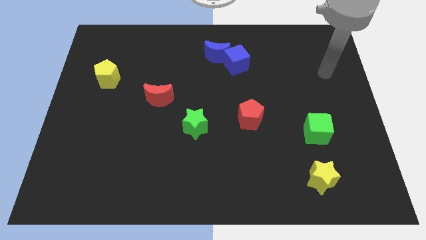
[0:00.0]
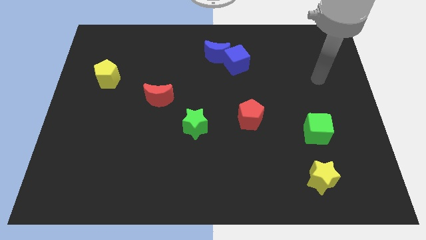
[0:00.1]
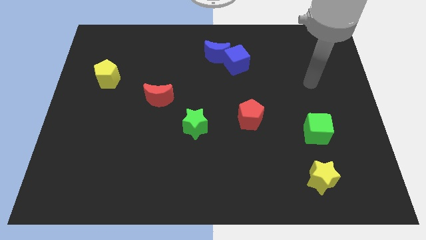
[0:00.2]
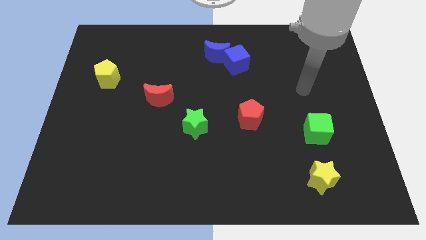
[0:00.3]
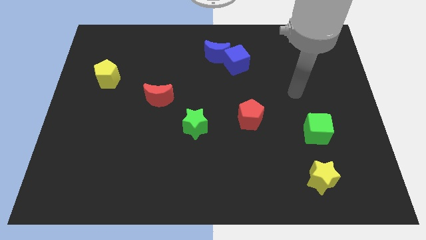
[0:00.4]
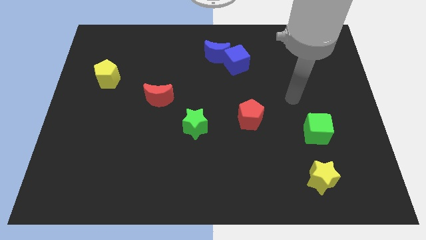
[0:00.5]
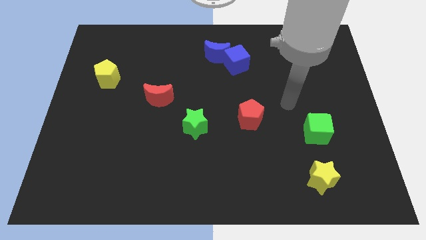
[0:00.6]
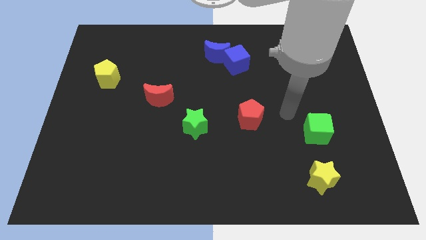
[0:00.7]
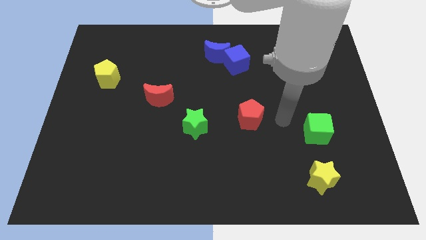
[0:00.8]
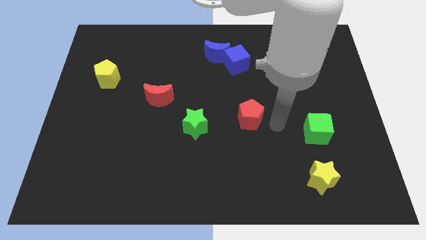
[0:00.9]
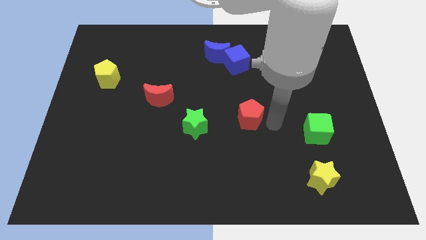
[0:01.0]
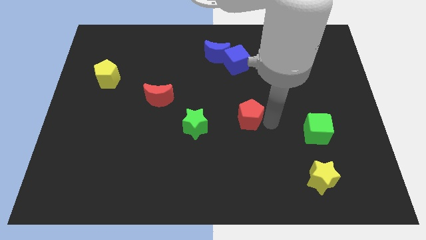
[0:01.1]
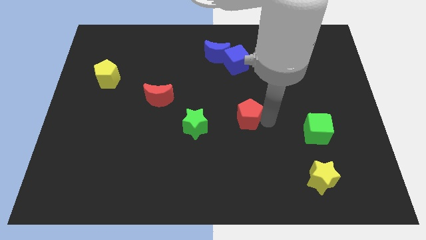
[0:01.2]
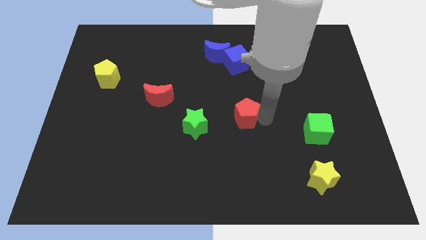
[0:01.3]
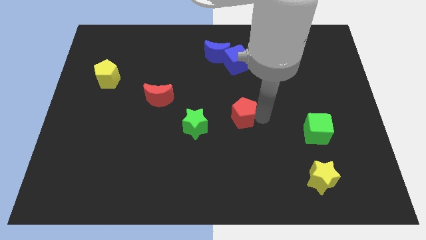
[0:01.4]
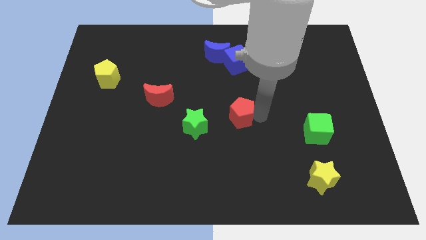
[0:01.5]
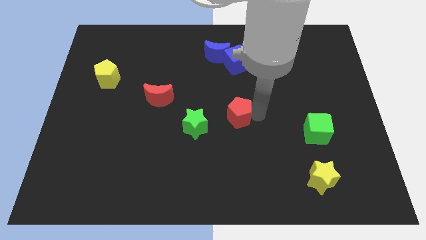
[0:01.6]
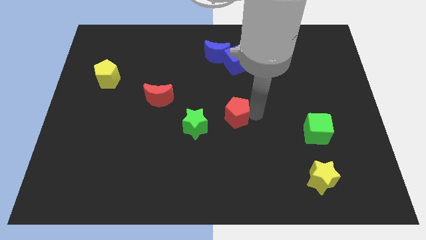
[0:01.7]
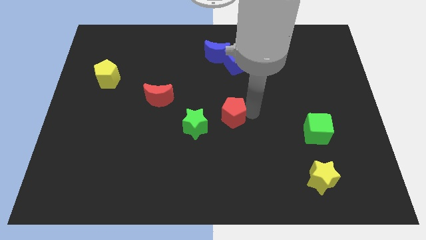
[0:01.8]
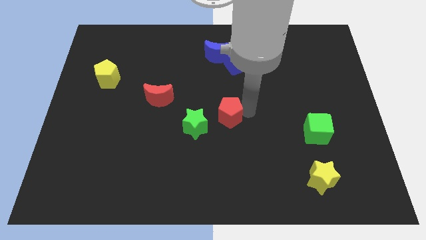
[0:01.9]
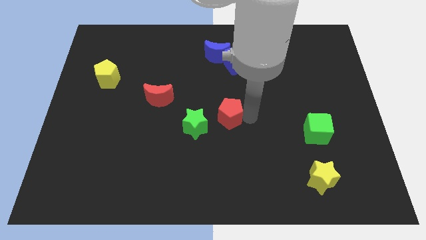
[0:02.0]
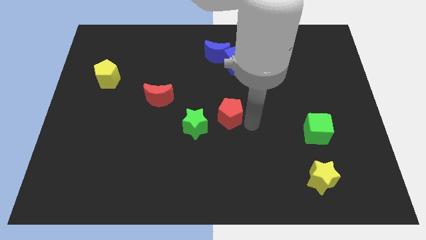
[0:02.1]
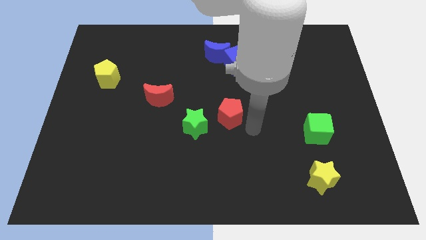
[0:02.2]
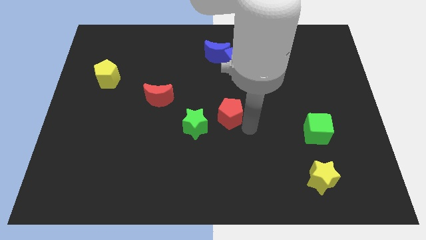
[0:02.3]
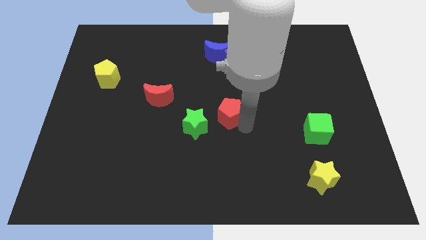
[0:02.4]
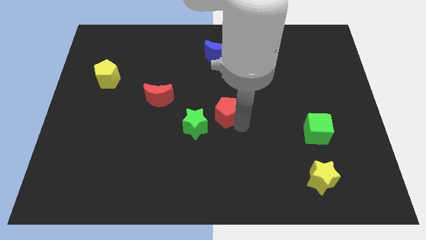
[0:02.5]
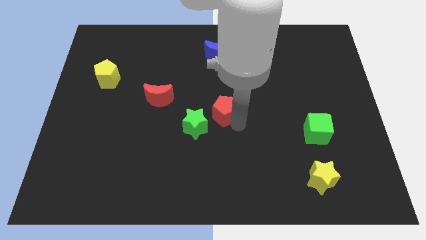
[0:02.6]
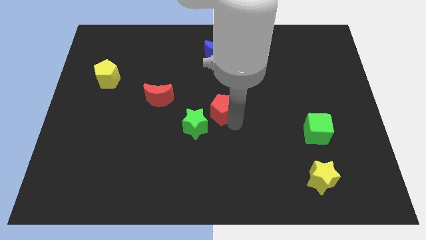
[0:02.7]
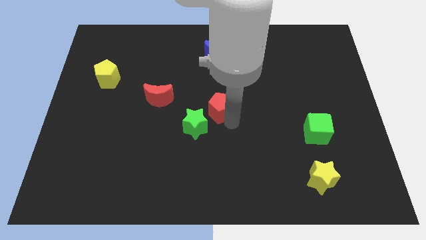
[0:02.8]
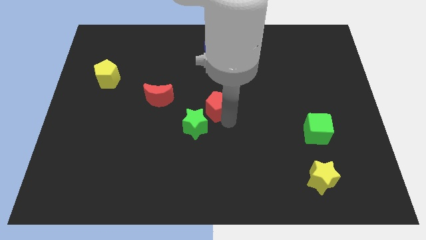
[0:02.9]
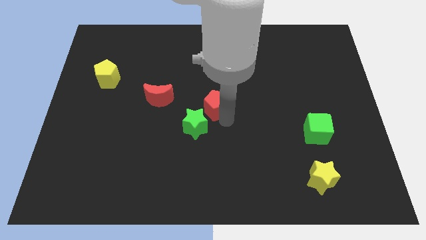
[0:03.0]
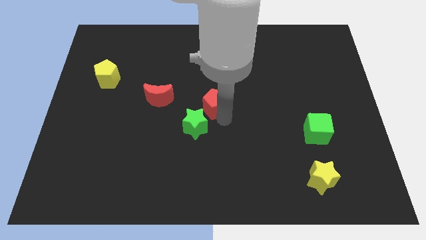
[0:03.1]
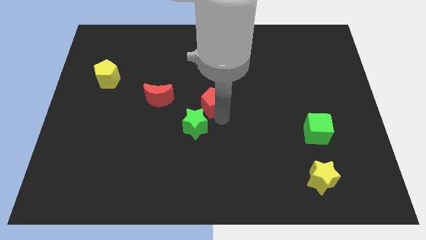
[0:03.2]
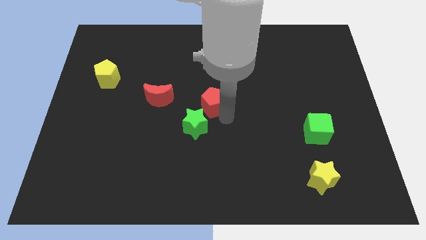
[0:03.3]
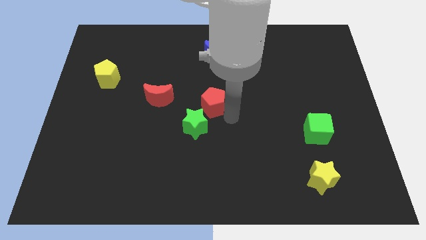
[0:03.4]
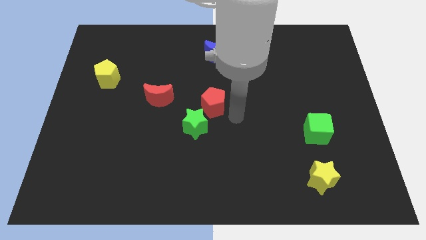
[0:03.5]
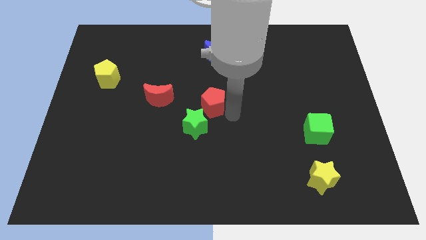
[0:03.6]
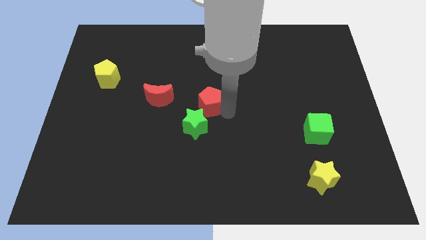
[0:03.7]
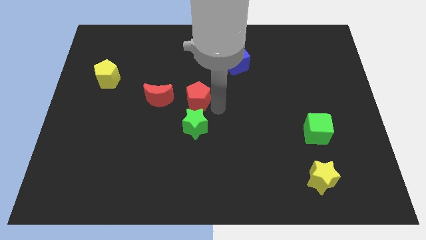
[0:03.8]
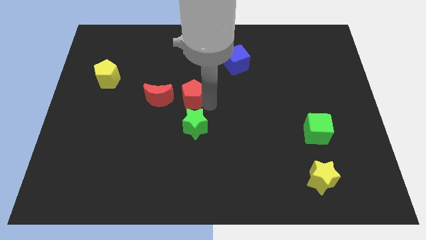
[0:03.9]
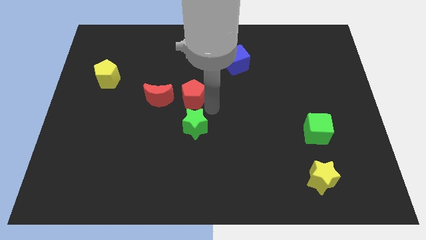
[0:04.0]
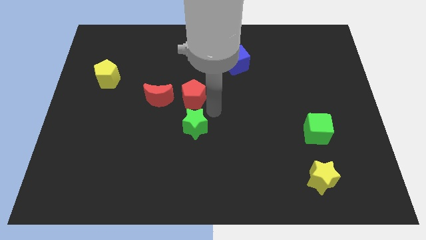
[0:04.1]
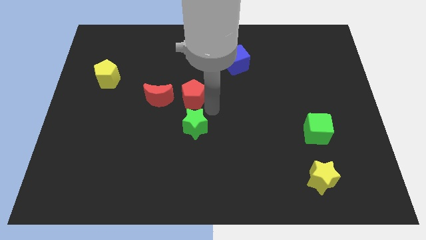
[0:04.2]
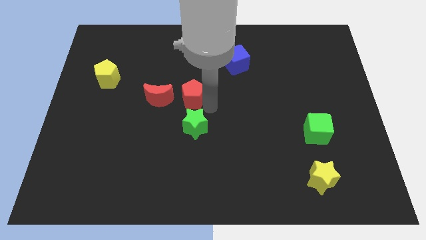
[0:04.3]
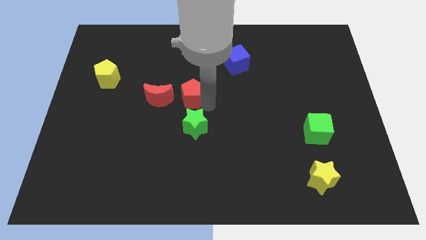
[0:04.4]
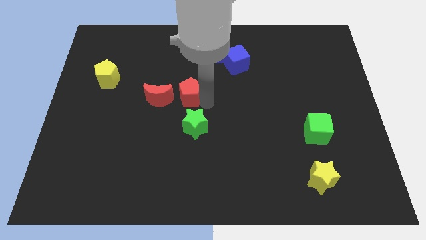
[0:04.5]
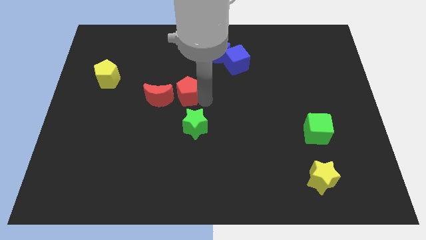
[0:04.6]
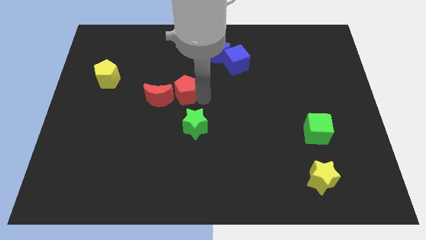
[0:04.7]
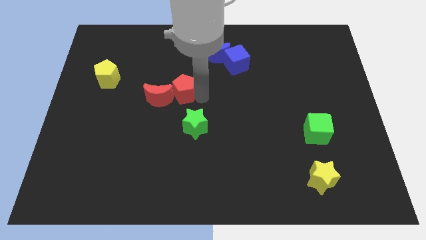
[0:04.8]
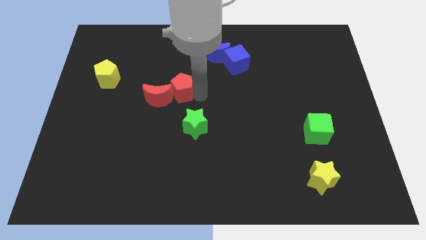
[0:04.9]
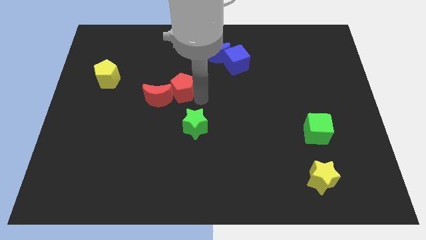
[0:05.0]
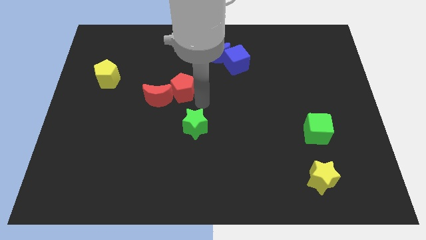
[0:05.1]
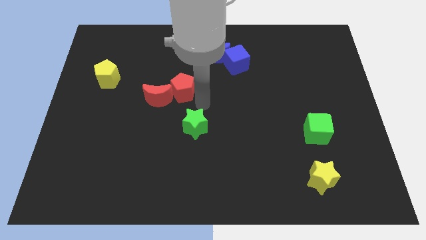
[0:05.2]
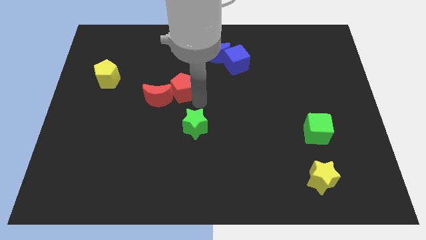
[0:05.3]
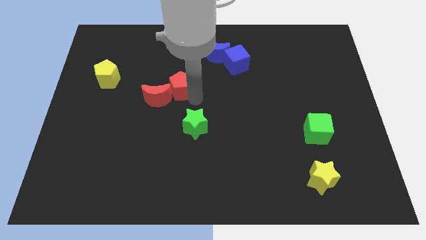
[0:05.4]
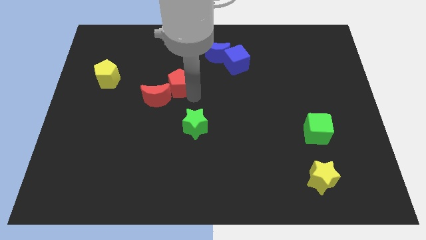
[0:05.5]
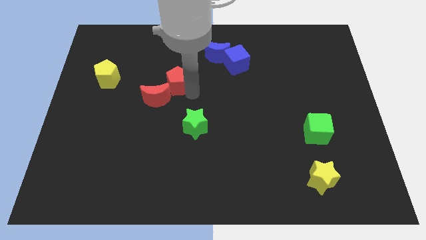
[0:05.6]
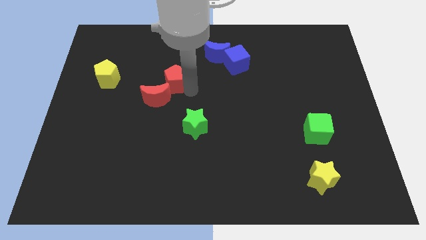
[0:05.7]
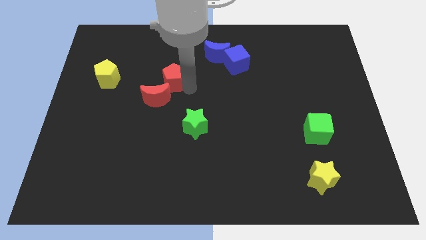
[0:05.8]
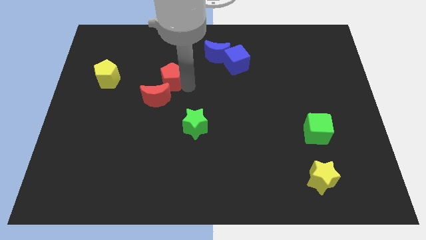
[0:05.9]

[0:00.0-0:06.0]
put the red pentagon right of the yellow pentagon
